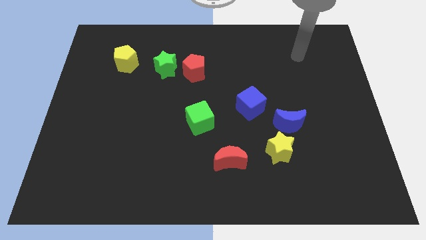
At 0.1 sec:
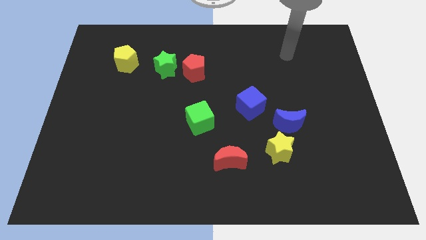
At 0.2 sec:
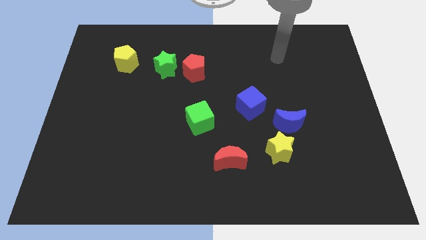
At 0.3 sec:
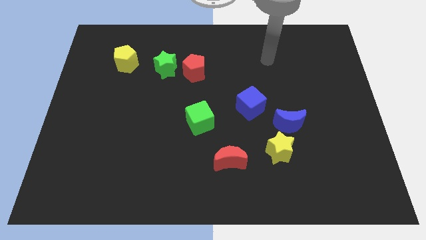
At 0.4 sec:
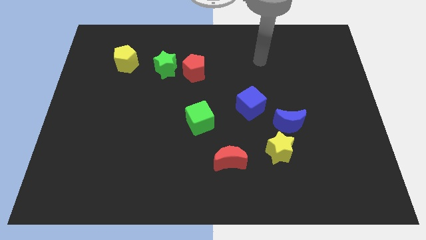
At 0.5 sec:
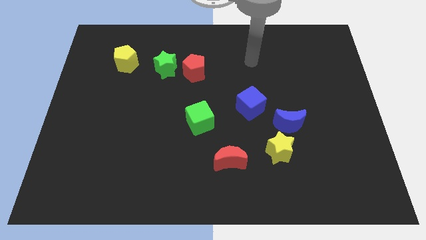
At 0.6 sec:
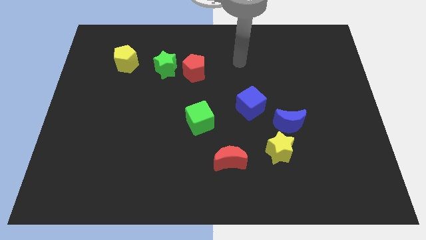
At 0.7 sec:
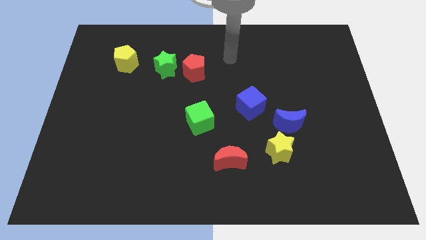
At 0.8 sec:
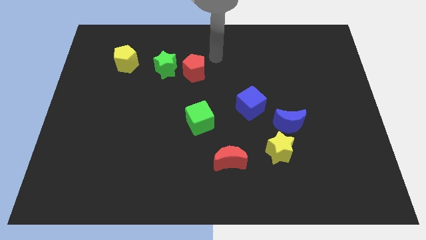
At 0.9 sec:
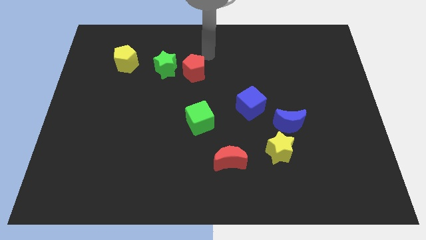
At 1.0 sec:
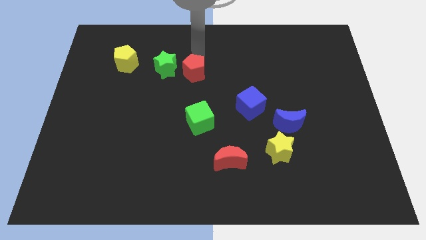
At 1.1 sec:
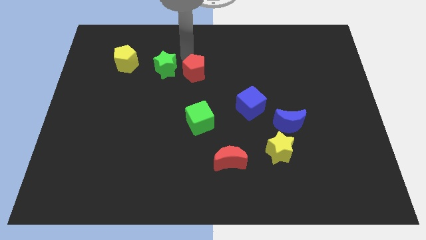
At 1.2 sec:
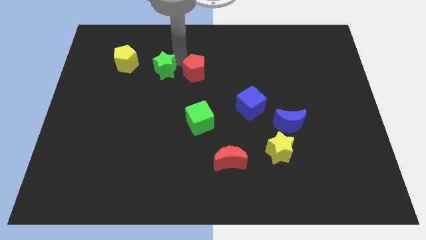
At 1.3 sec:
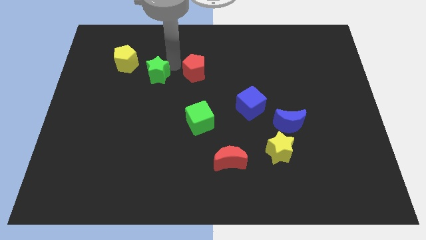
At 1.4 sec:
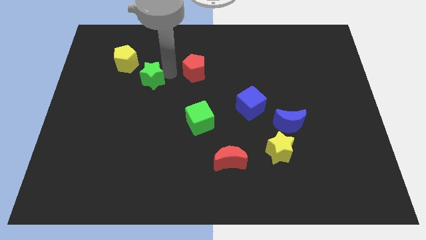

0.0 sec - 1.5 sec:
pull the red pentagon apart from the green star

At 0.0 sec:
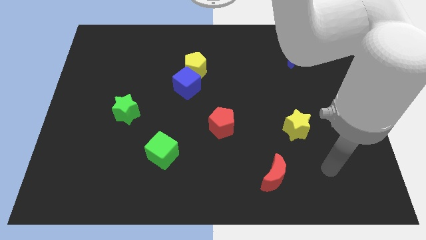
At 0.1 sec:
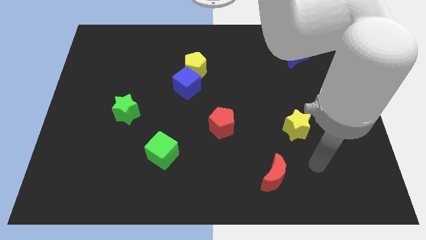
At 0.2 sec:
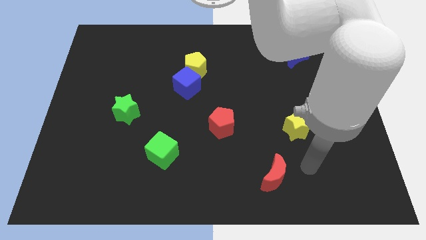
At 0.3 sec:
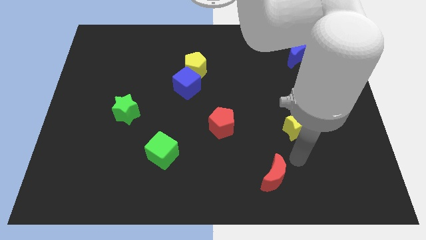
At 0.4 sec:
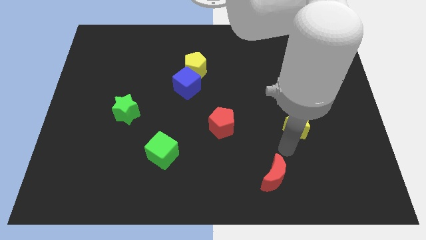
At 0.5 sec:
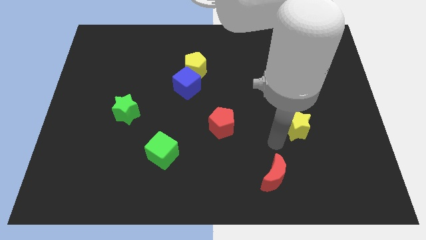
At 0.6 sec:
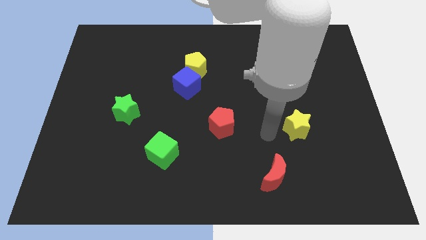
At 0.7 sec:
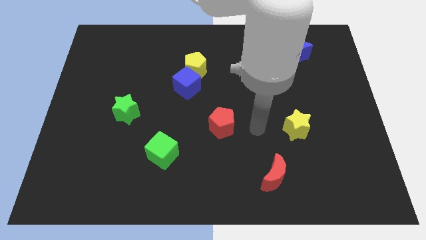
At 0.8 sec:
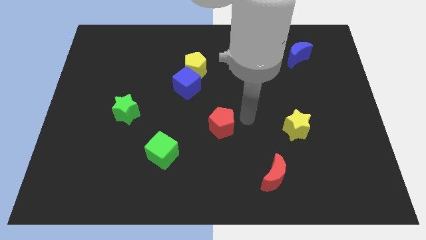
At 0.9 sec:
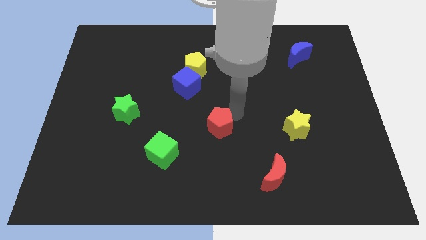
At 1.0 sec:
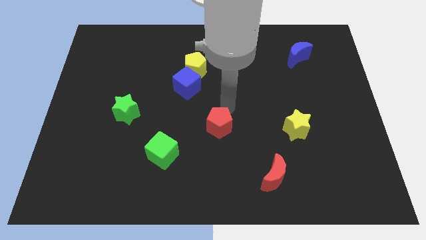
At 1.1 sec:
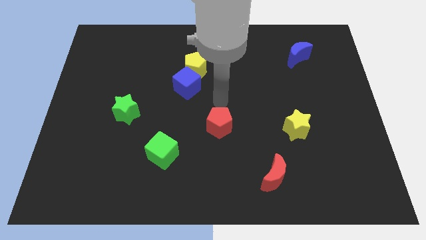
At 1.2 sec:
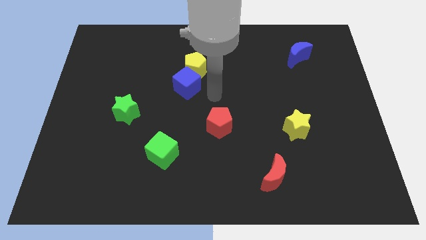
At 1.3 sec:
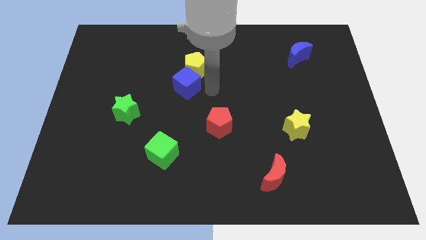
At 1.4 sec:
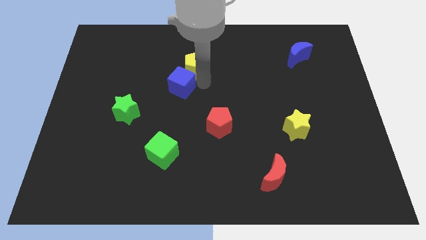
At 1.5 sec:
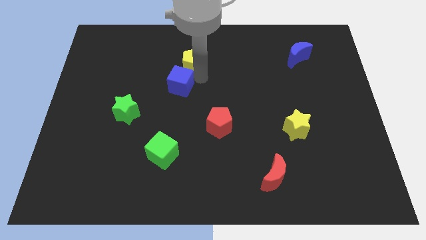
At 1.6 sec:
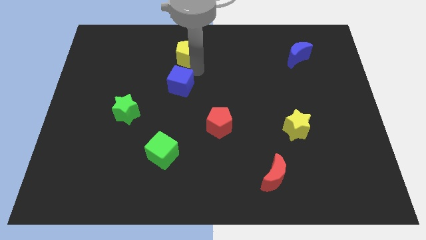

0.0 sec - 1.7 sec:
pull the blue cube apart from the yellow pentagon

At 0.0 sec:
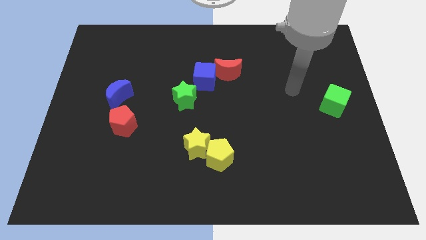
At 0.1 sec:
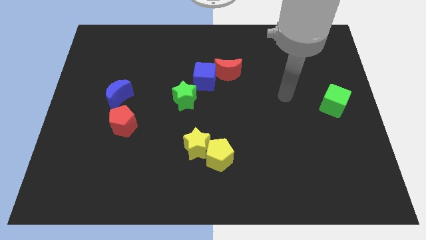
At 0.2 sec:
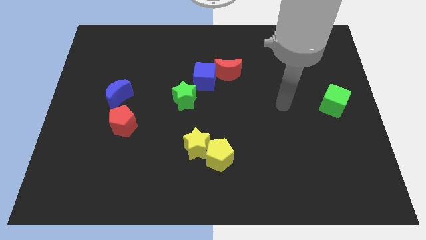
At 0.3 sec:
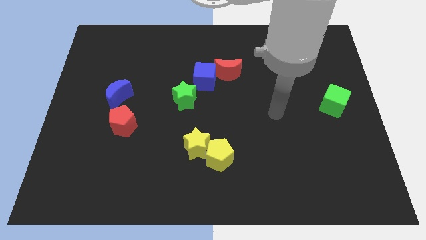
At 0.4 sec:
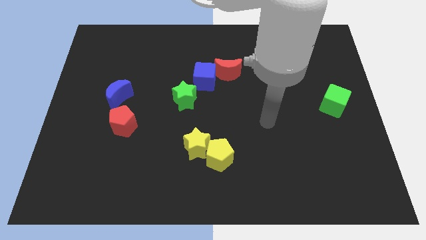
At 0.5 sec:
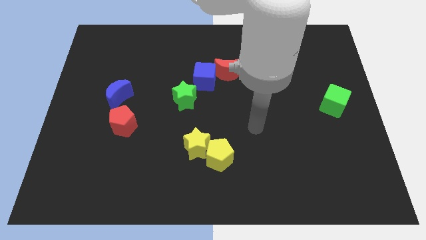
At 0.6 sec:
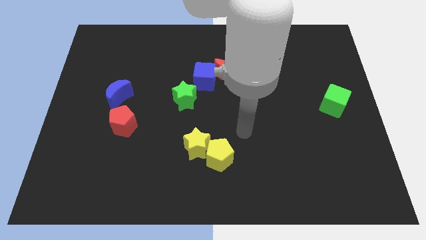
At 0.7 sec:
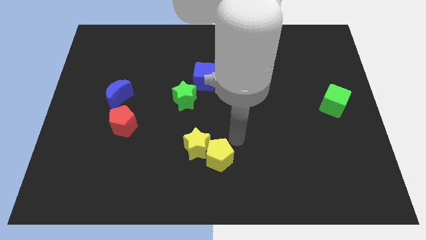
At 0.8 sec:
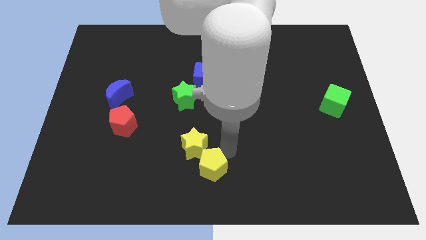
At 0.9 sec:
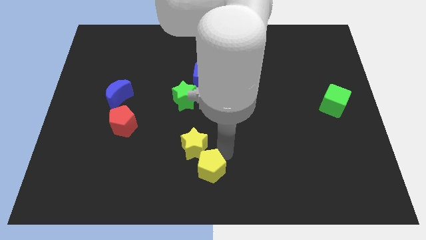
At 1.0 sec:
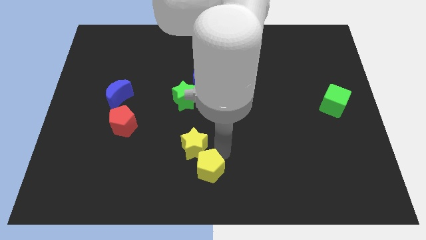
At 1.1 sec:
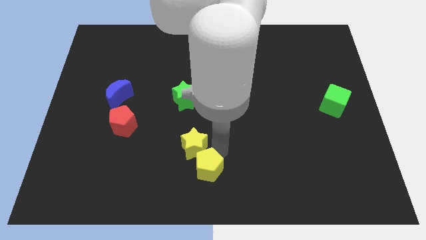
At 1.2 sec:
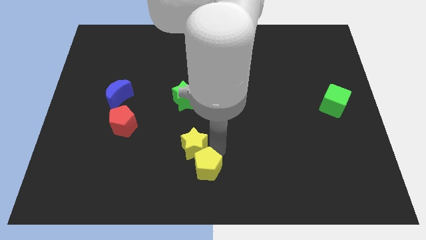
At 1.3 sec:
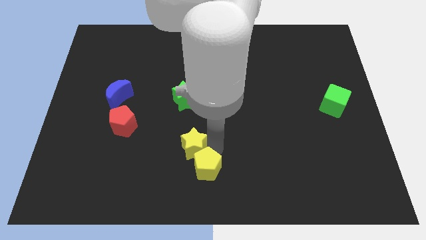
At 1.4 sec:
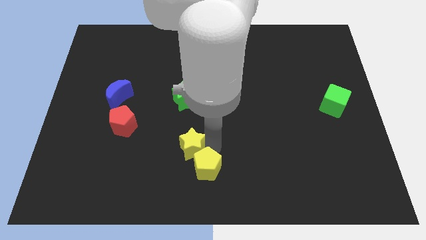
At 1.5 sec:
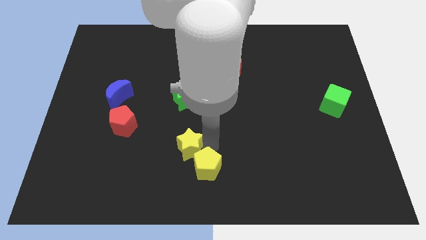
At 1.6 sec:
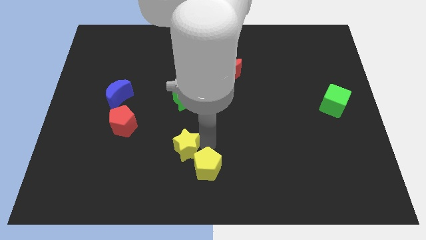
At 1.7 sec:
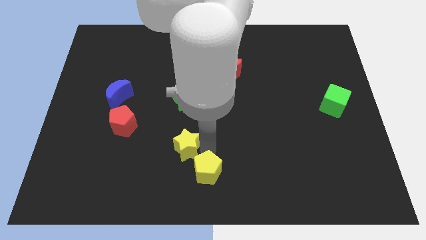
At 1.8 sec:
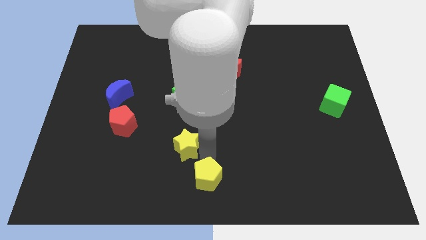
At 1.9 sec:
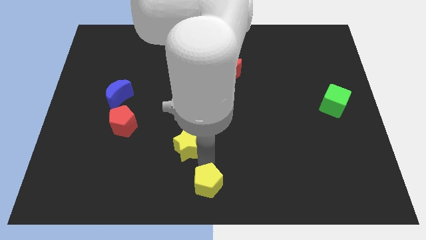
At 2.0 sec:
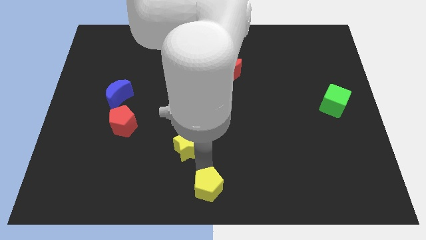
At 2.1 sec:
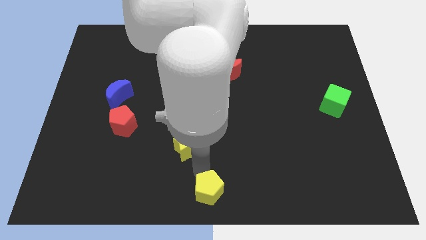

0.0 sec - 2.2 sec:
pull the yellow star apart from the yellow pentagon

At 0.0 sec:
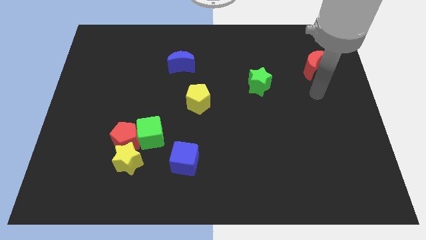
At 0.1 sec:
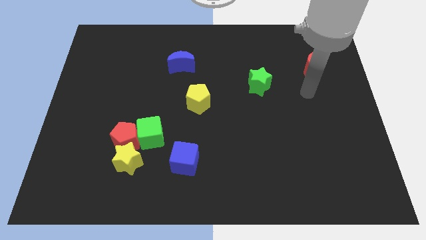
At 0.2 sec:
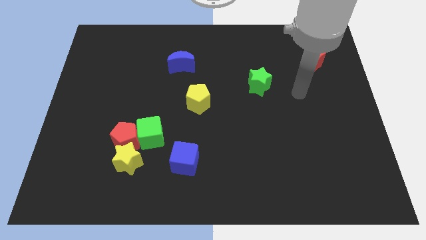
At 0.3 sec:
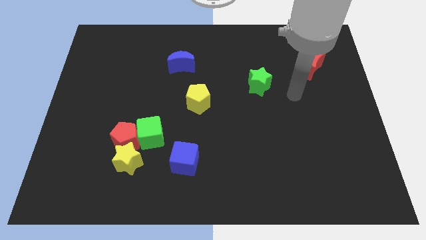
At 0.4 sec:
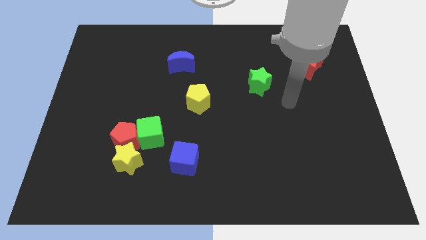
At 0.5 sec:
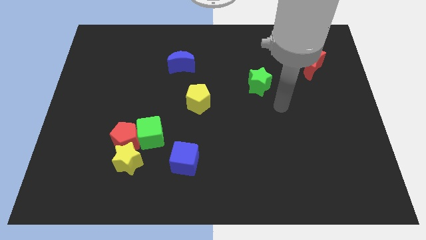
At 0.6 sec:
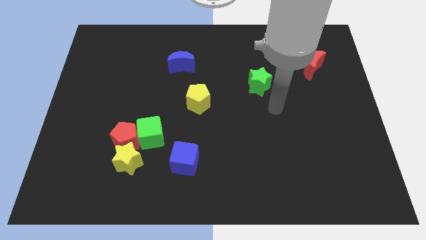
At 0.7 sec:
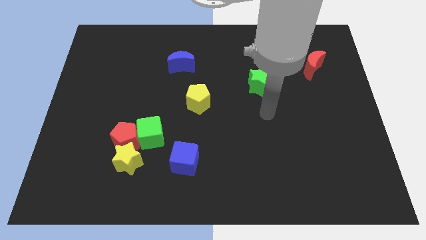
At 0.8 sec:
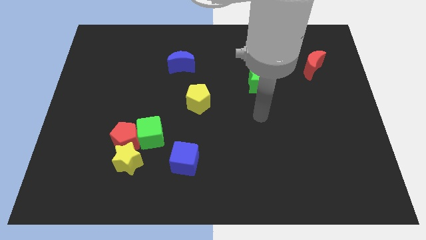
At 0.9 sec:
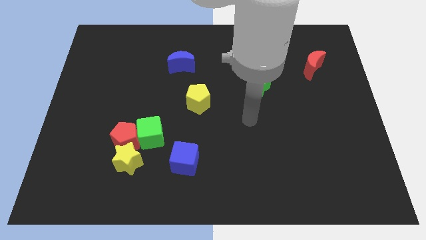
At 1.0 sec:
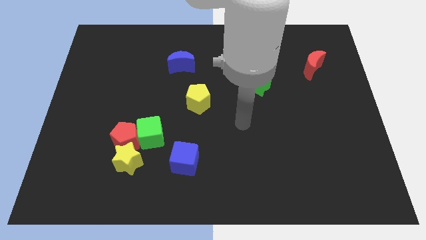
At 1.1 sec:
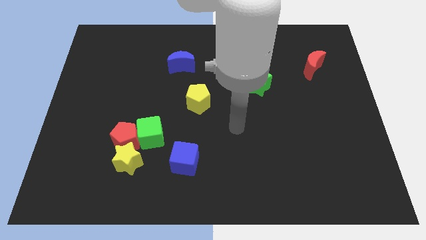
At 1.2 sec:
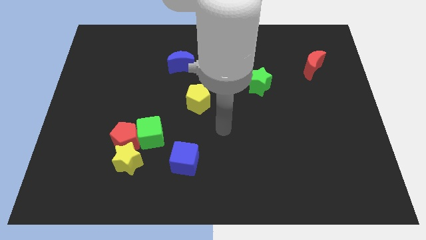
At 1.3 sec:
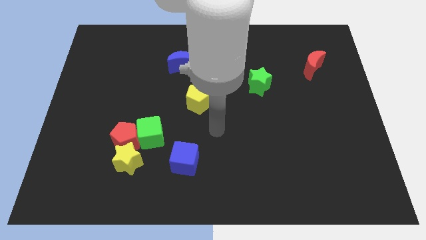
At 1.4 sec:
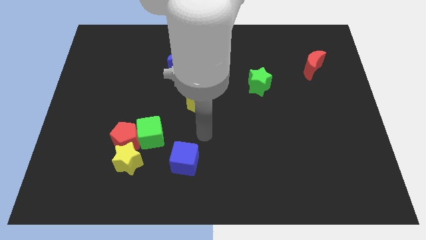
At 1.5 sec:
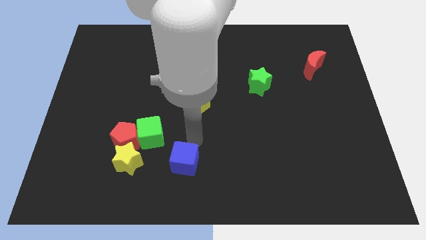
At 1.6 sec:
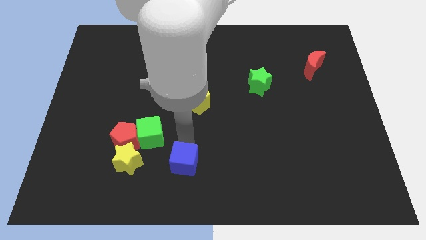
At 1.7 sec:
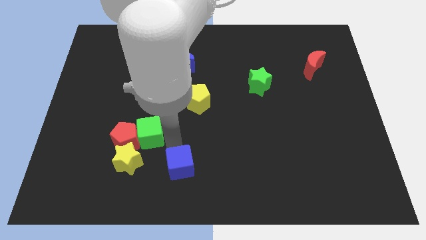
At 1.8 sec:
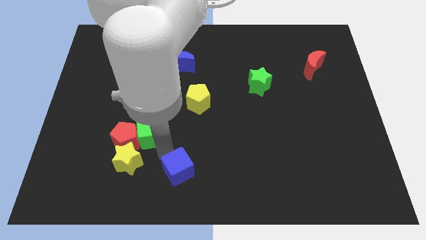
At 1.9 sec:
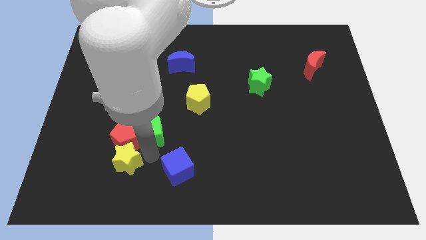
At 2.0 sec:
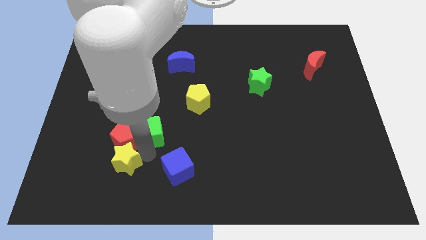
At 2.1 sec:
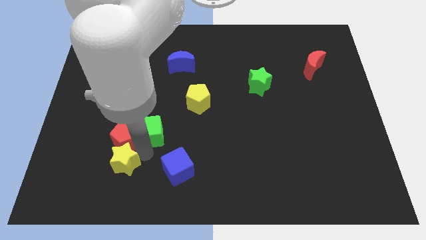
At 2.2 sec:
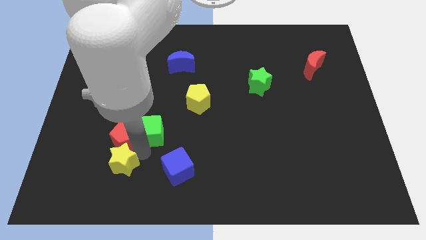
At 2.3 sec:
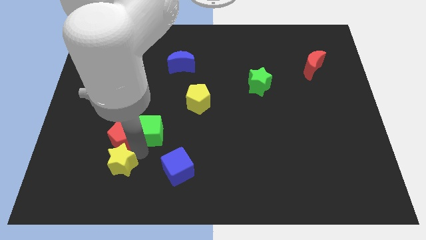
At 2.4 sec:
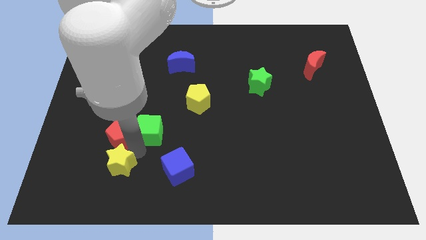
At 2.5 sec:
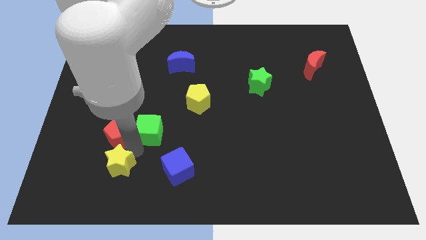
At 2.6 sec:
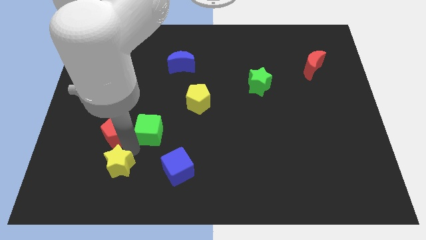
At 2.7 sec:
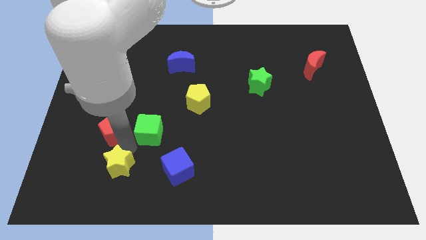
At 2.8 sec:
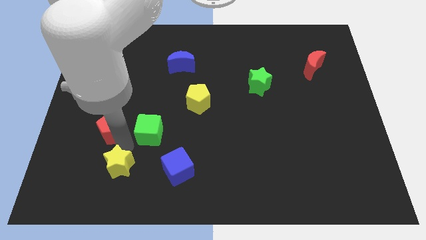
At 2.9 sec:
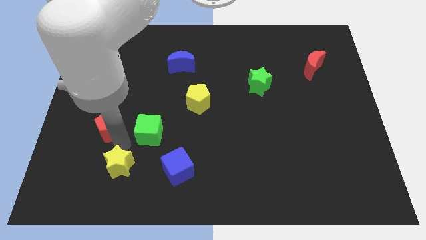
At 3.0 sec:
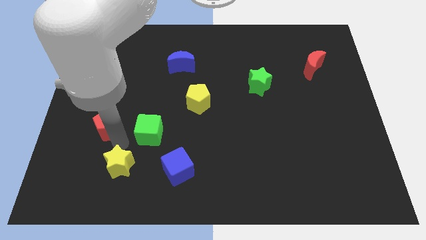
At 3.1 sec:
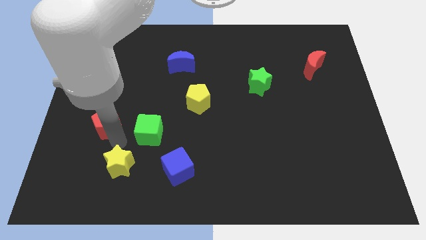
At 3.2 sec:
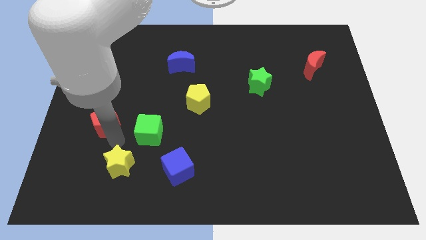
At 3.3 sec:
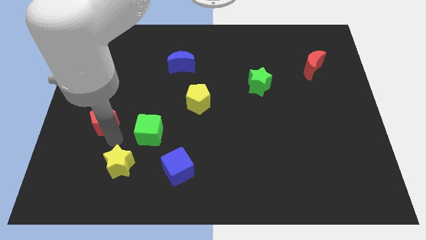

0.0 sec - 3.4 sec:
separate the red pentagon from the green cube and yellow star

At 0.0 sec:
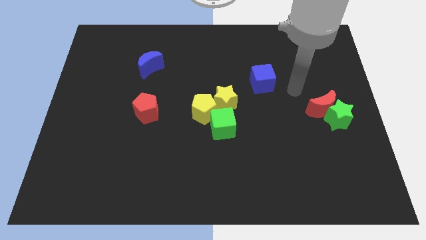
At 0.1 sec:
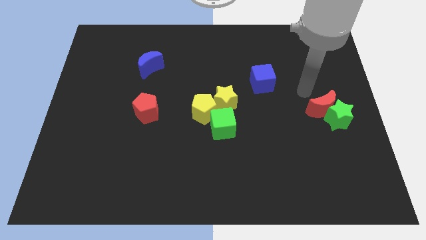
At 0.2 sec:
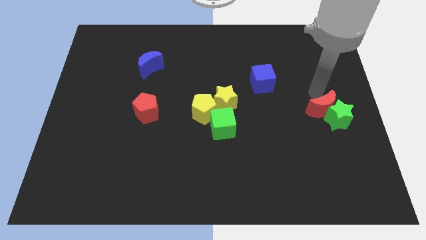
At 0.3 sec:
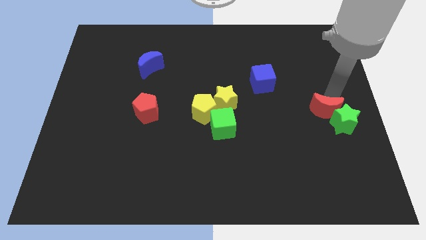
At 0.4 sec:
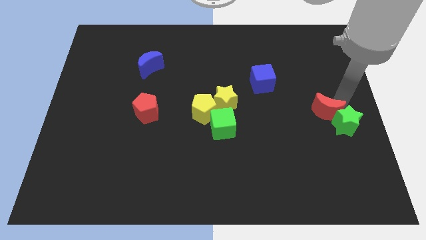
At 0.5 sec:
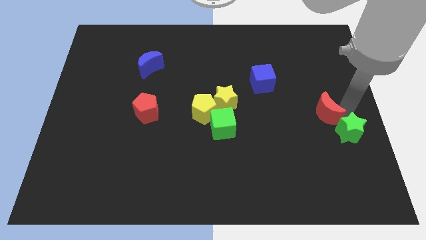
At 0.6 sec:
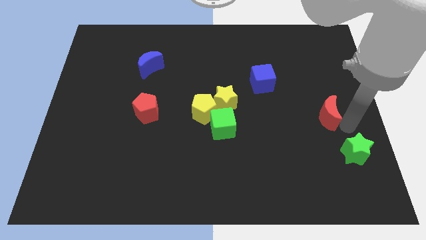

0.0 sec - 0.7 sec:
separate the red moon from the green star
